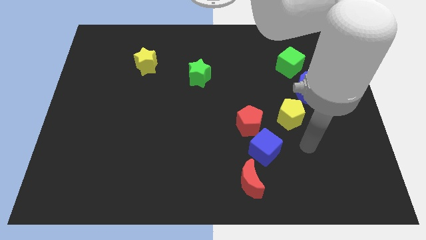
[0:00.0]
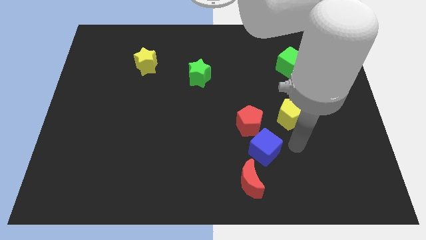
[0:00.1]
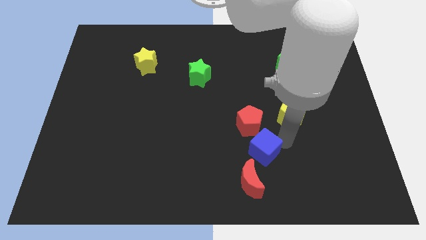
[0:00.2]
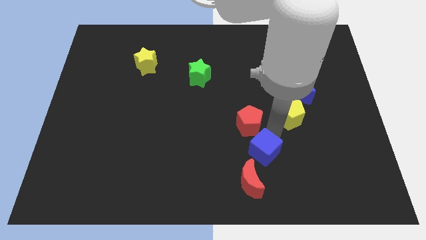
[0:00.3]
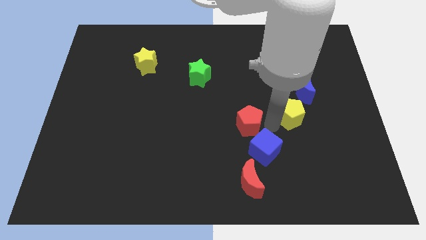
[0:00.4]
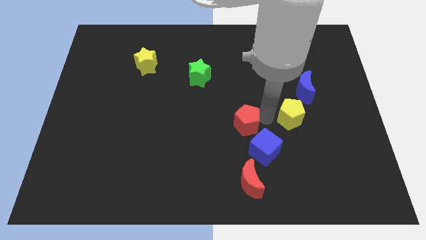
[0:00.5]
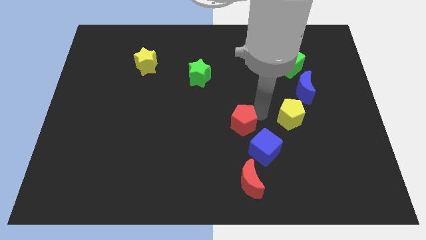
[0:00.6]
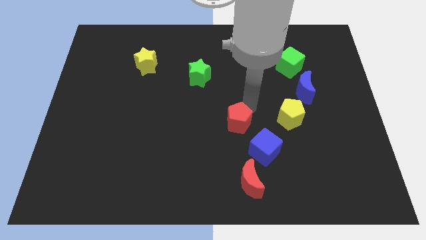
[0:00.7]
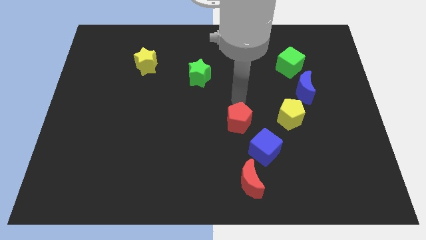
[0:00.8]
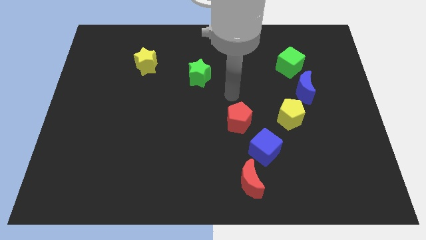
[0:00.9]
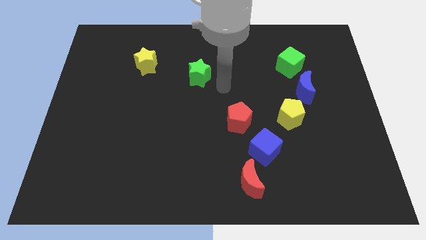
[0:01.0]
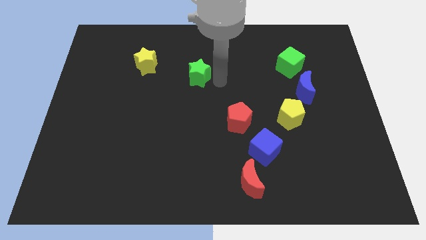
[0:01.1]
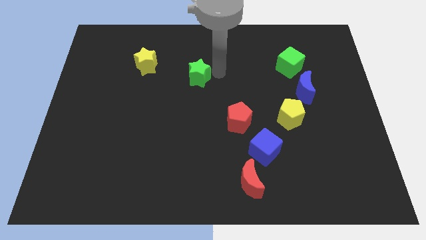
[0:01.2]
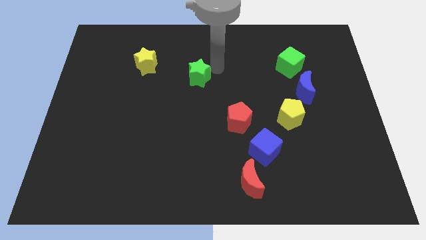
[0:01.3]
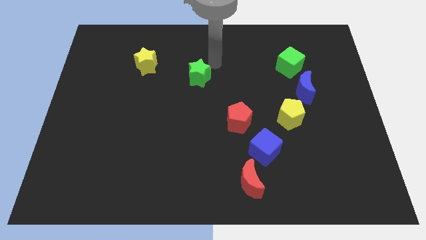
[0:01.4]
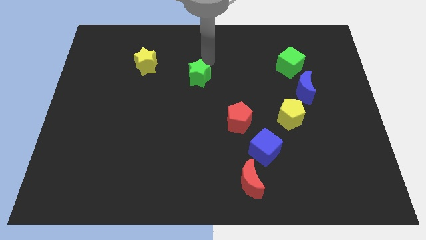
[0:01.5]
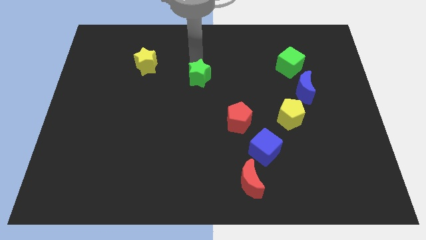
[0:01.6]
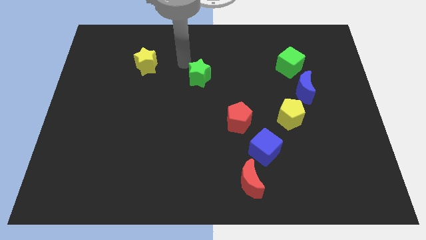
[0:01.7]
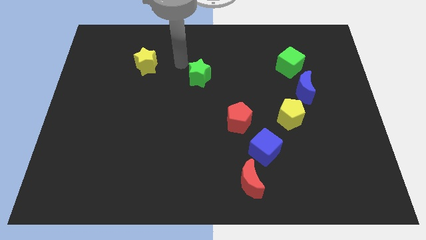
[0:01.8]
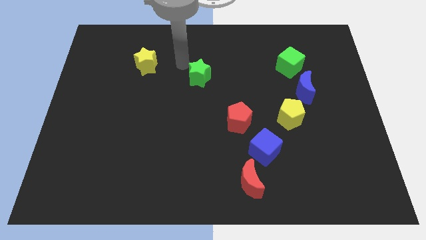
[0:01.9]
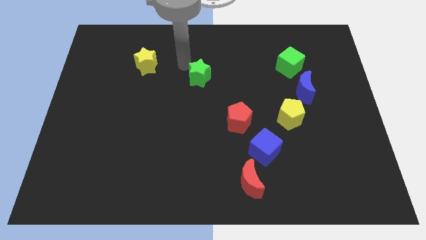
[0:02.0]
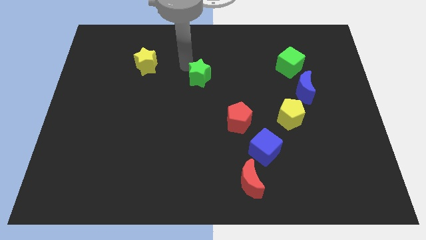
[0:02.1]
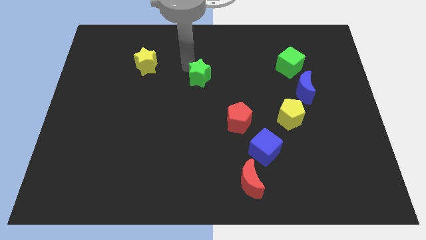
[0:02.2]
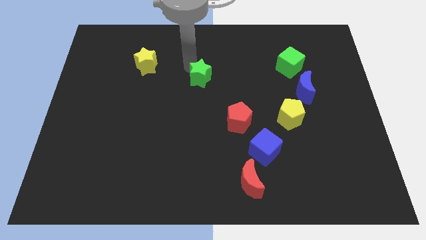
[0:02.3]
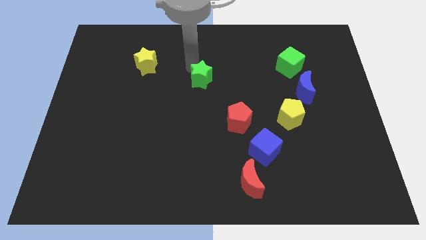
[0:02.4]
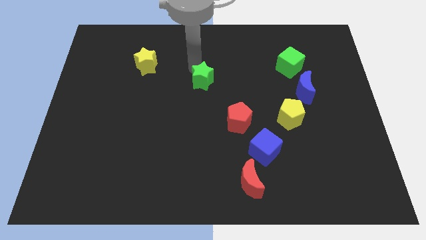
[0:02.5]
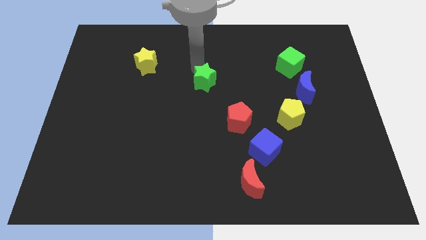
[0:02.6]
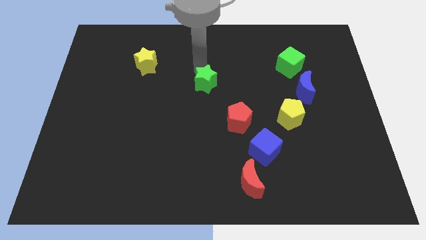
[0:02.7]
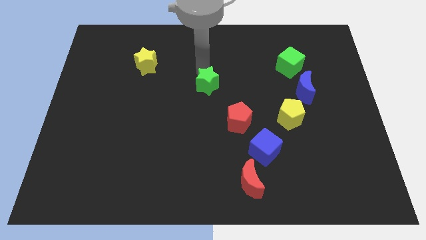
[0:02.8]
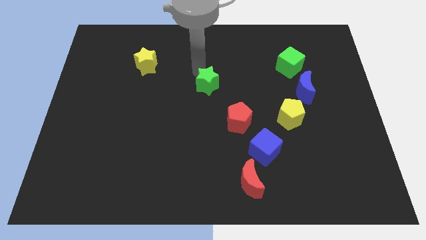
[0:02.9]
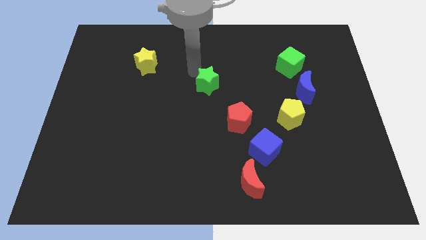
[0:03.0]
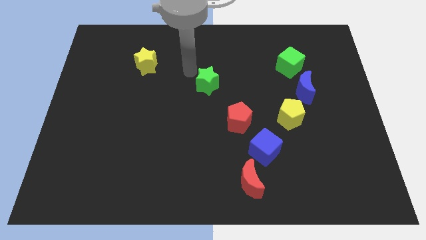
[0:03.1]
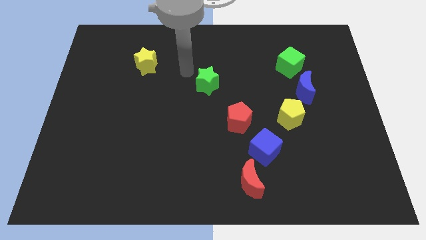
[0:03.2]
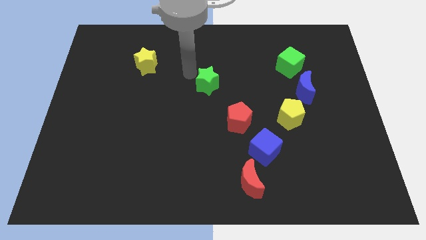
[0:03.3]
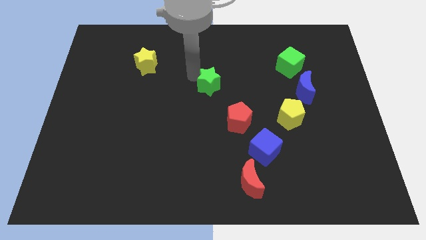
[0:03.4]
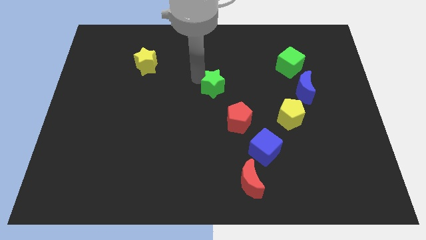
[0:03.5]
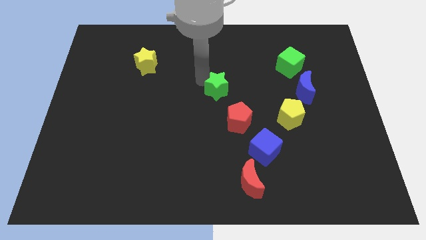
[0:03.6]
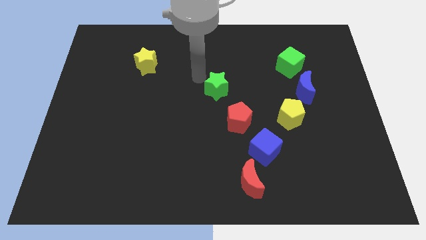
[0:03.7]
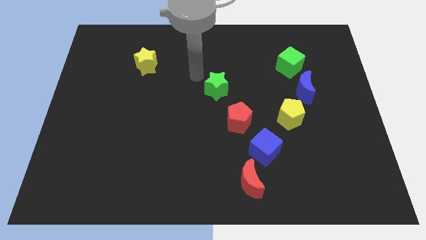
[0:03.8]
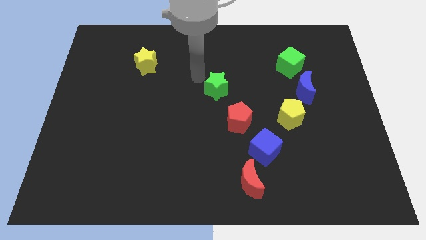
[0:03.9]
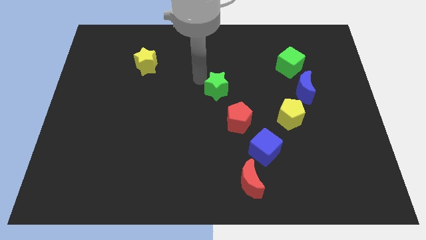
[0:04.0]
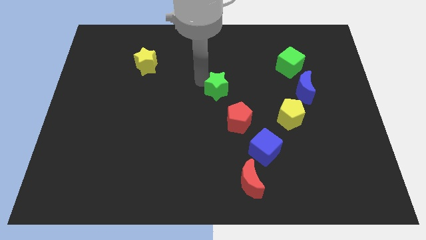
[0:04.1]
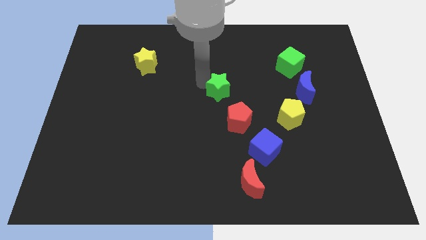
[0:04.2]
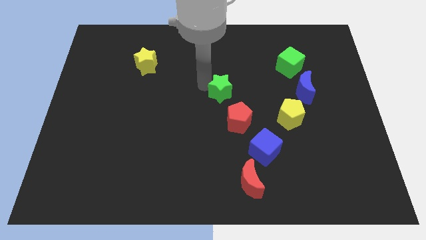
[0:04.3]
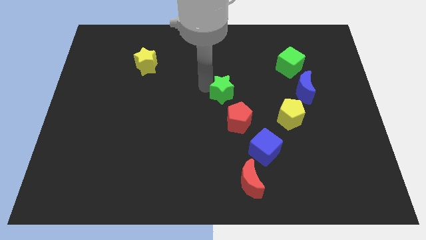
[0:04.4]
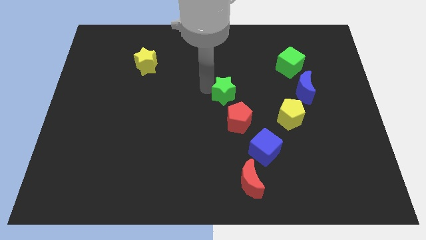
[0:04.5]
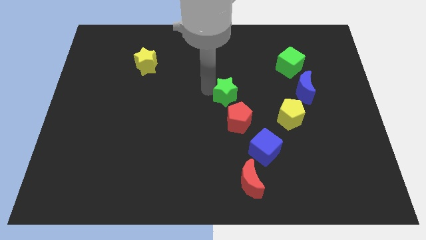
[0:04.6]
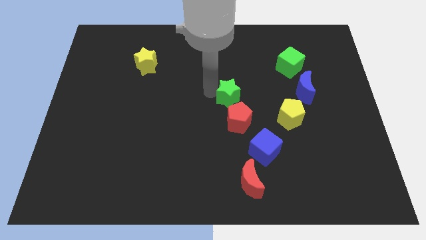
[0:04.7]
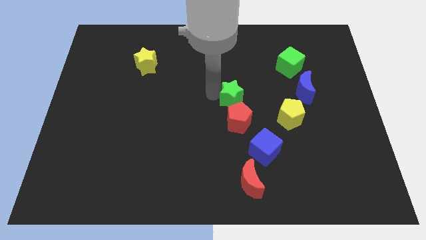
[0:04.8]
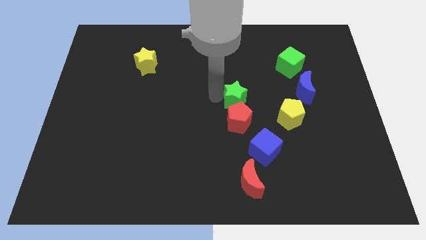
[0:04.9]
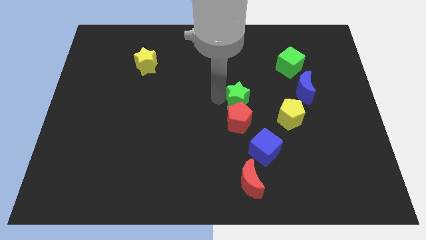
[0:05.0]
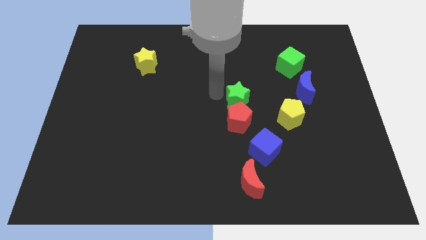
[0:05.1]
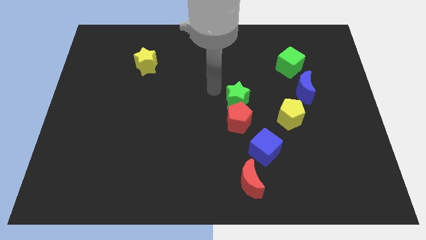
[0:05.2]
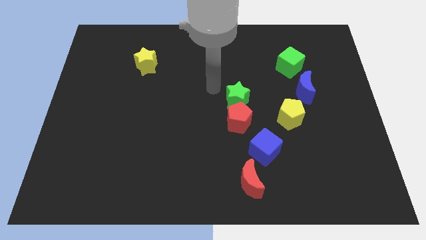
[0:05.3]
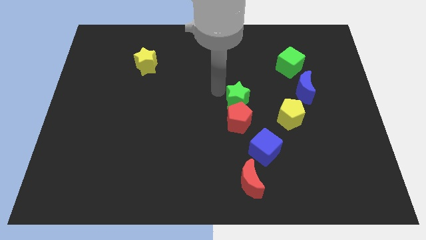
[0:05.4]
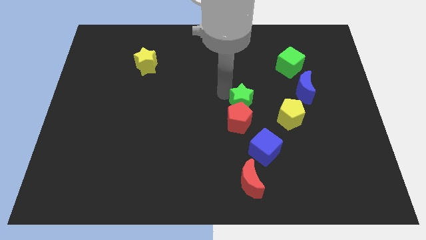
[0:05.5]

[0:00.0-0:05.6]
slide the green star to the top of the blue cube

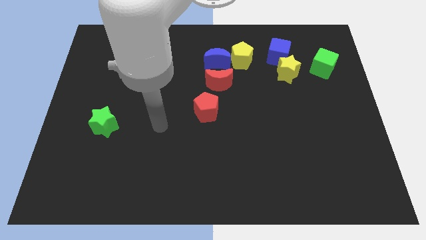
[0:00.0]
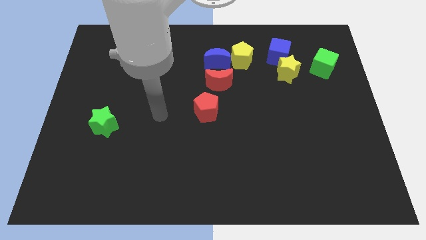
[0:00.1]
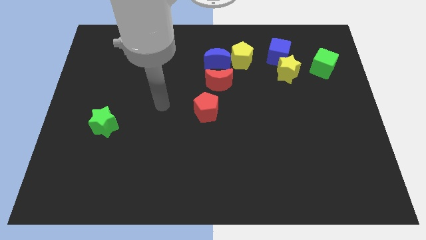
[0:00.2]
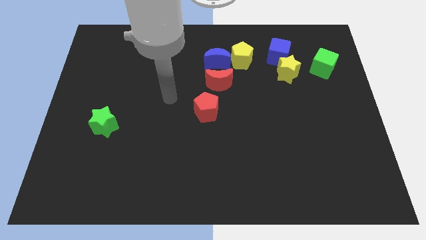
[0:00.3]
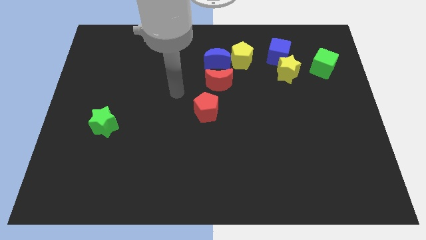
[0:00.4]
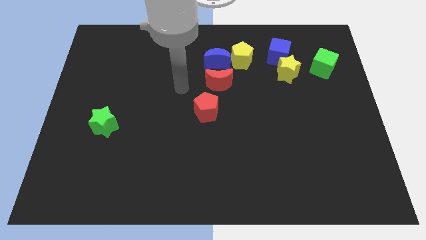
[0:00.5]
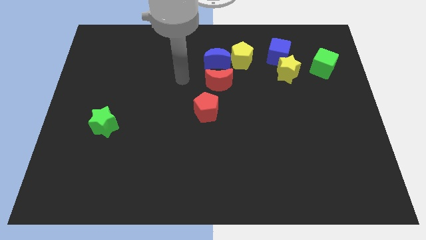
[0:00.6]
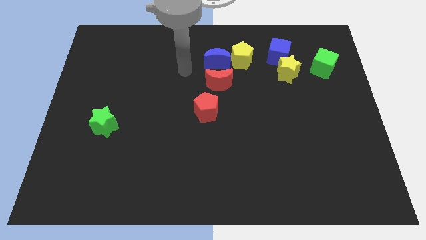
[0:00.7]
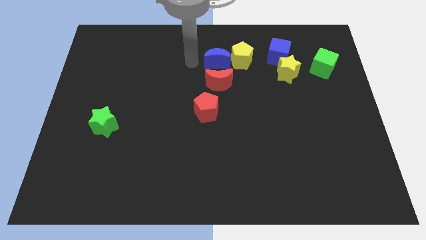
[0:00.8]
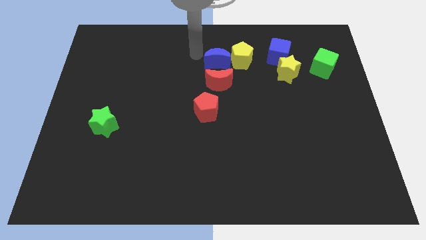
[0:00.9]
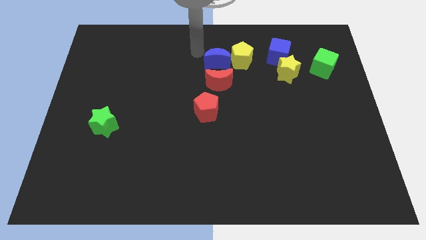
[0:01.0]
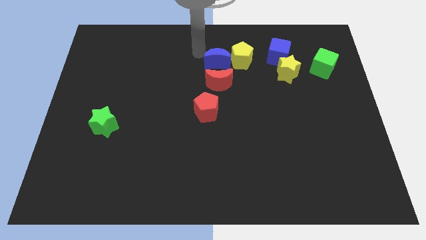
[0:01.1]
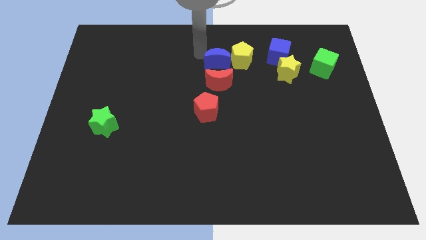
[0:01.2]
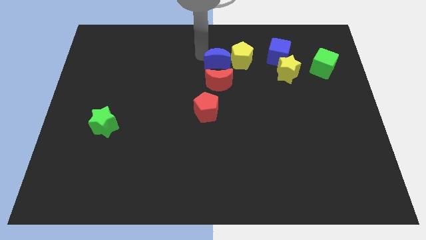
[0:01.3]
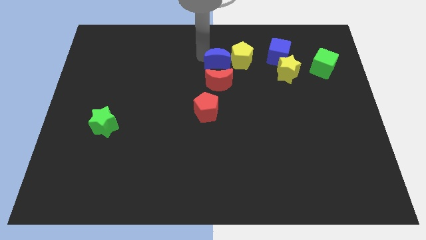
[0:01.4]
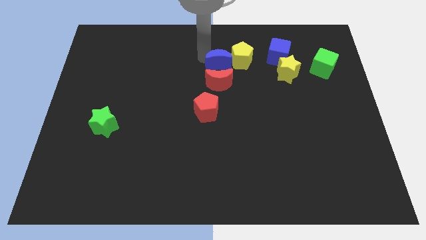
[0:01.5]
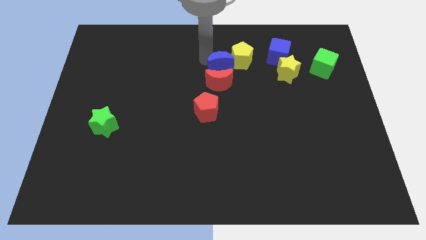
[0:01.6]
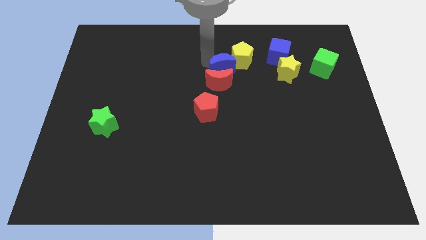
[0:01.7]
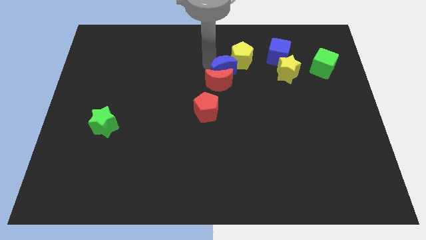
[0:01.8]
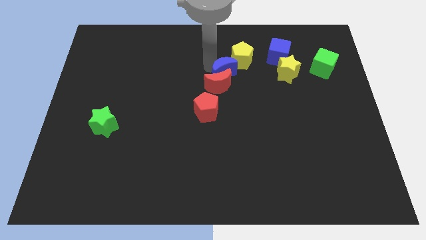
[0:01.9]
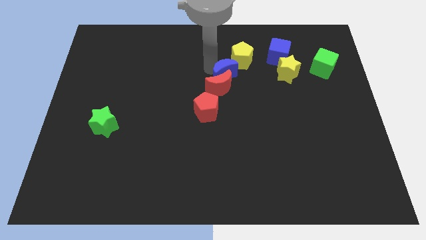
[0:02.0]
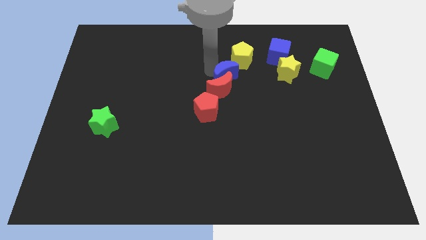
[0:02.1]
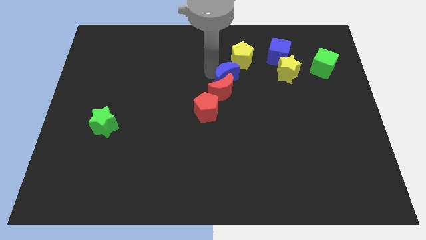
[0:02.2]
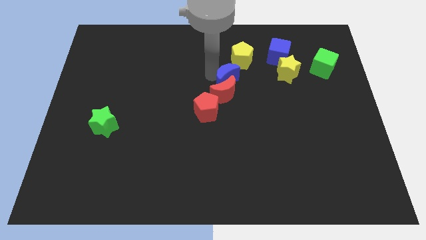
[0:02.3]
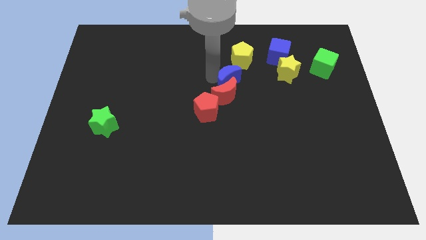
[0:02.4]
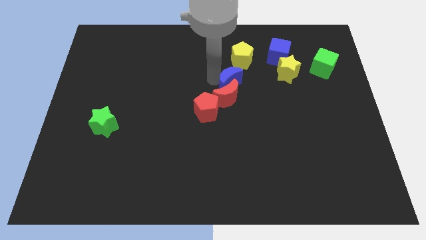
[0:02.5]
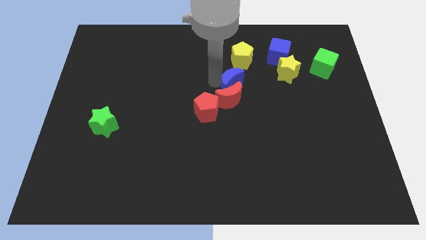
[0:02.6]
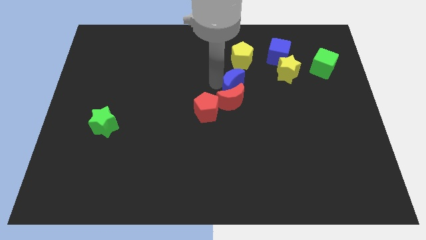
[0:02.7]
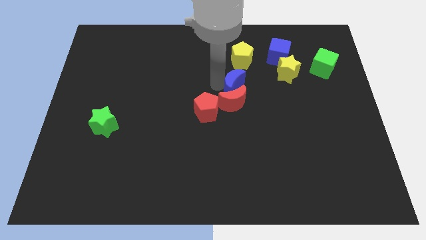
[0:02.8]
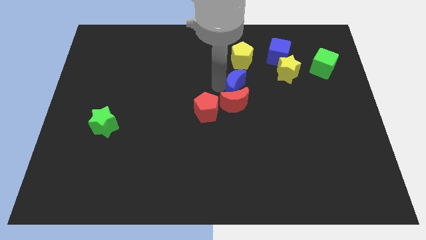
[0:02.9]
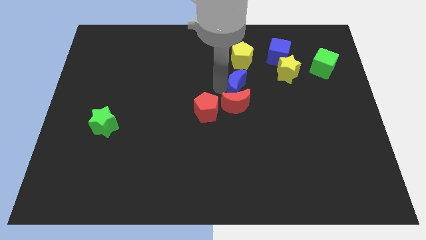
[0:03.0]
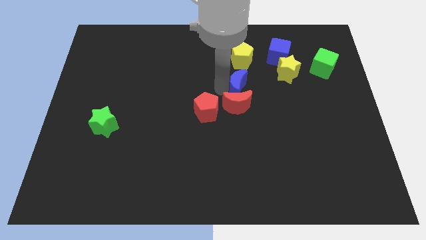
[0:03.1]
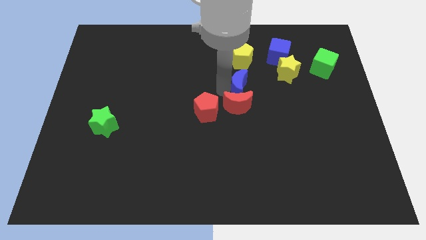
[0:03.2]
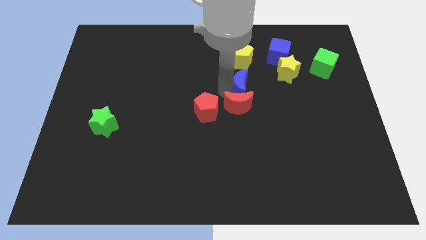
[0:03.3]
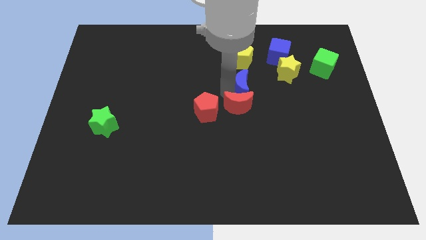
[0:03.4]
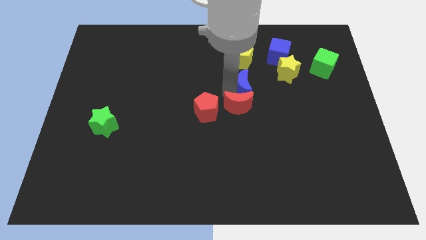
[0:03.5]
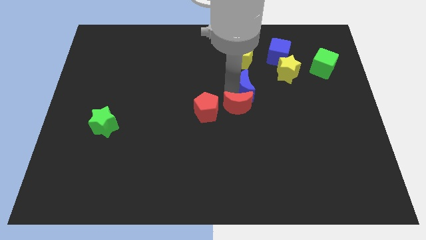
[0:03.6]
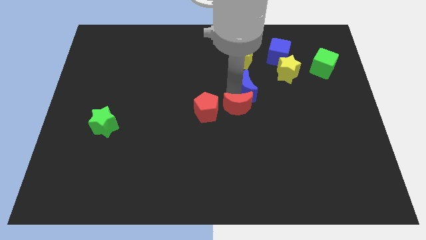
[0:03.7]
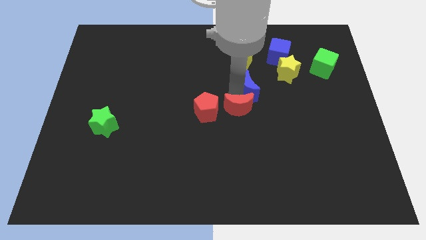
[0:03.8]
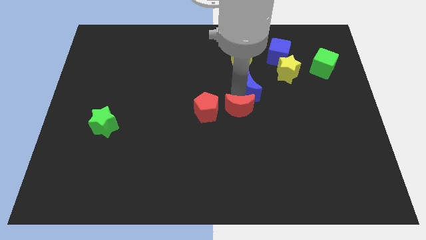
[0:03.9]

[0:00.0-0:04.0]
put the blue moon diagonally down and to the left of the yellow star
